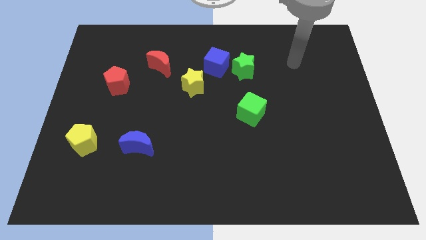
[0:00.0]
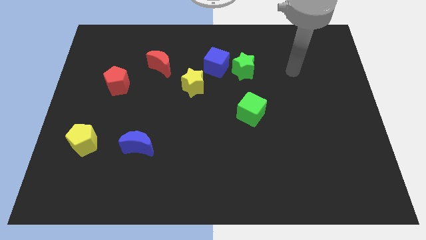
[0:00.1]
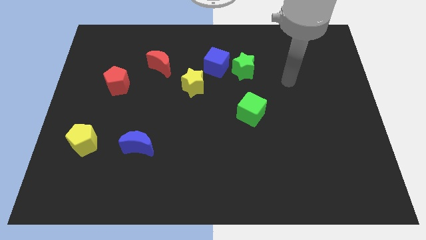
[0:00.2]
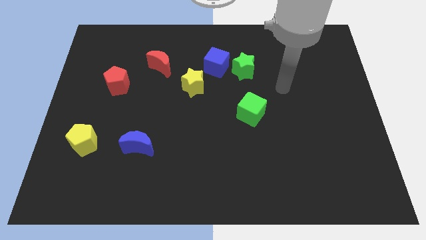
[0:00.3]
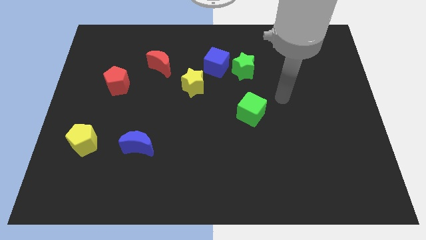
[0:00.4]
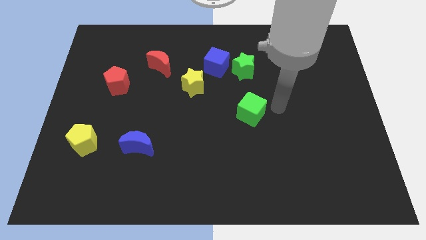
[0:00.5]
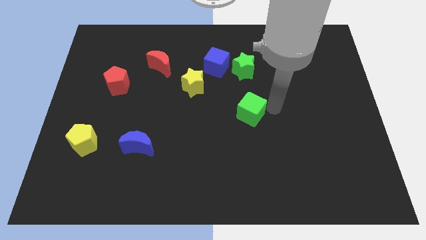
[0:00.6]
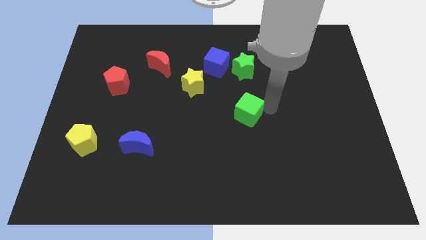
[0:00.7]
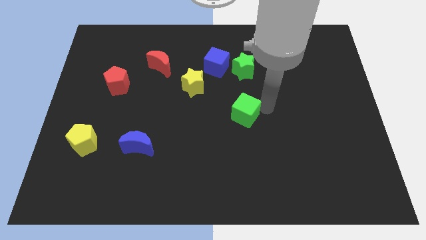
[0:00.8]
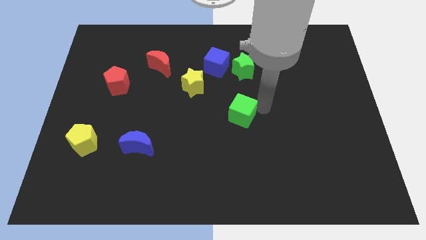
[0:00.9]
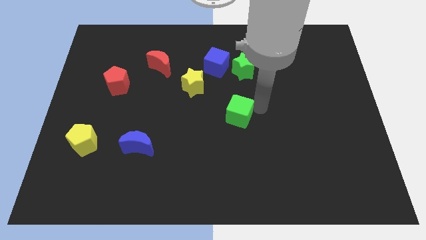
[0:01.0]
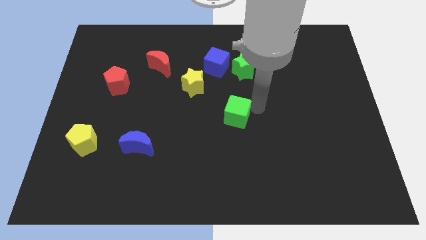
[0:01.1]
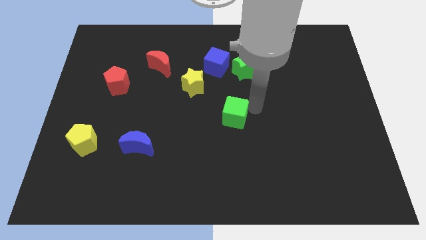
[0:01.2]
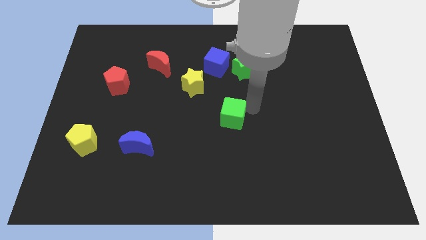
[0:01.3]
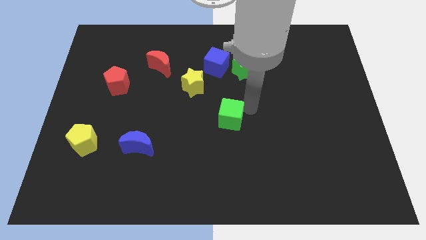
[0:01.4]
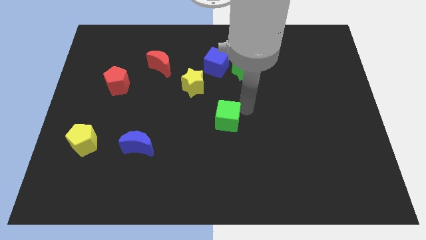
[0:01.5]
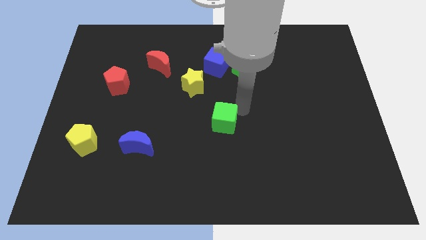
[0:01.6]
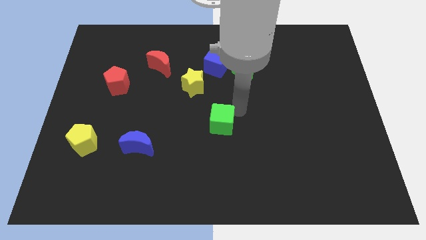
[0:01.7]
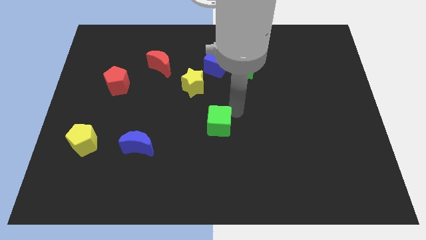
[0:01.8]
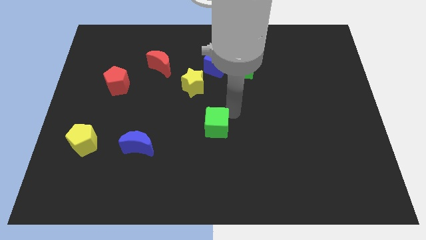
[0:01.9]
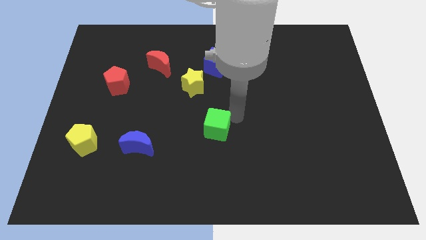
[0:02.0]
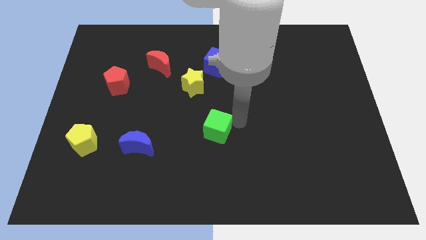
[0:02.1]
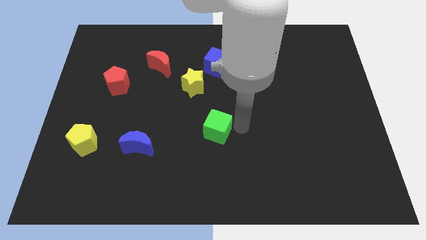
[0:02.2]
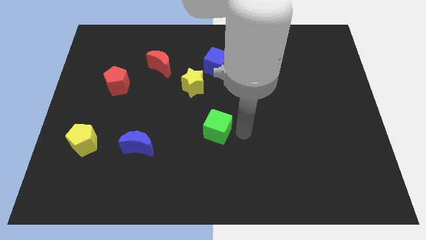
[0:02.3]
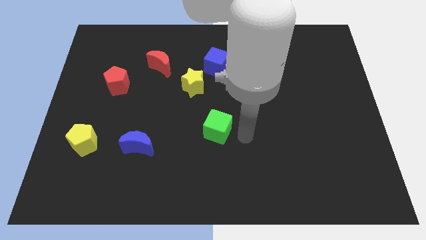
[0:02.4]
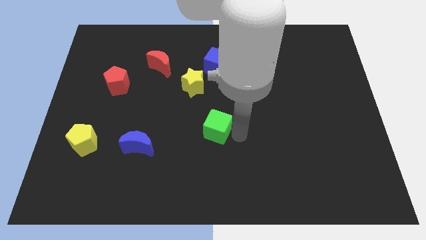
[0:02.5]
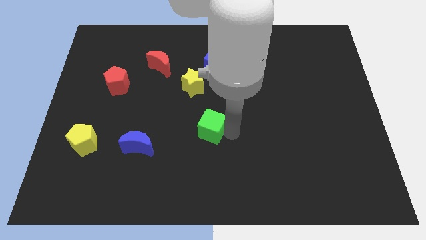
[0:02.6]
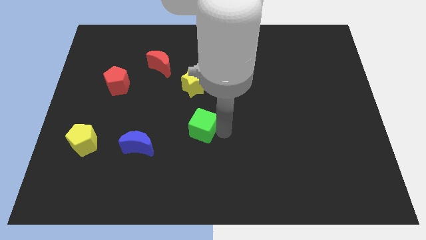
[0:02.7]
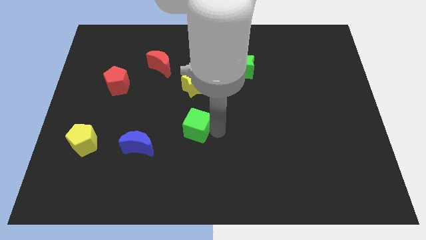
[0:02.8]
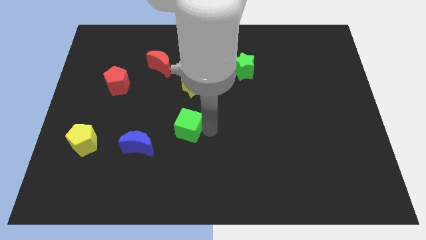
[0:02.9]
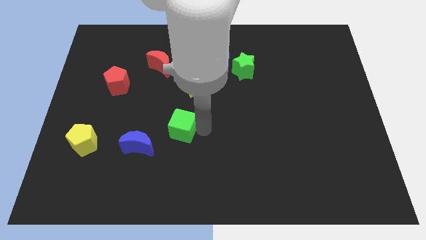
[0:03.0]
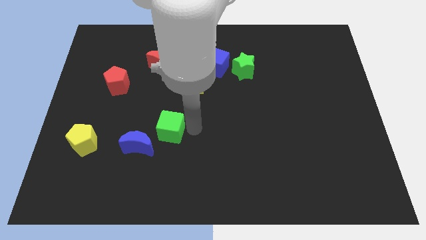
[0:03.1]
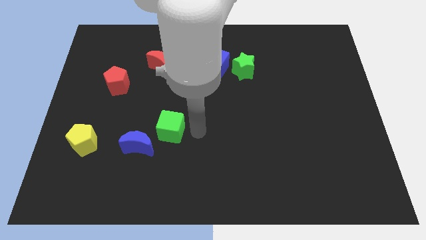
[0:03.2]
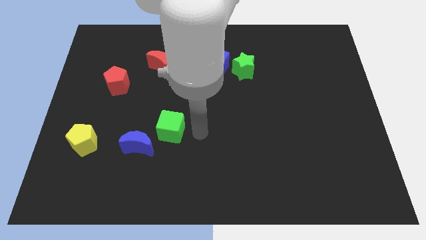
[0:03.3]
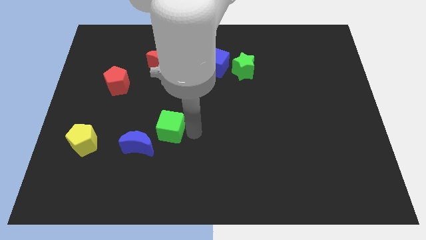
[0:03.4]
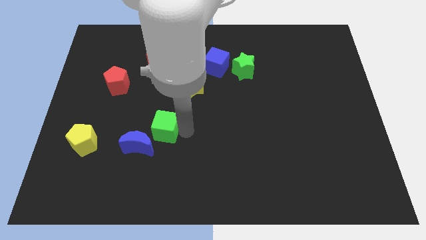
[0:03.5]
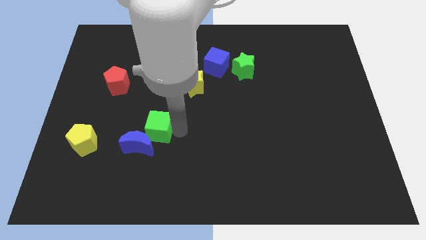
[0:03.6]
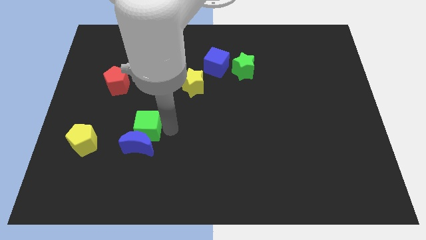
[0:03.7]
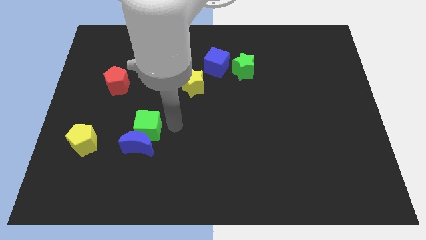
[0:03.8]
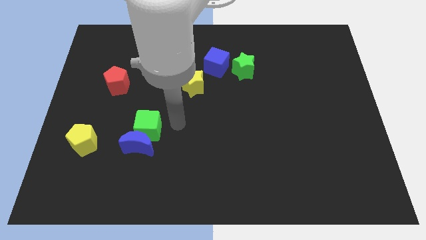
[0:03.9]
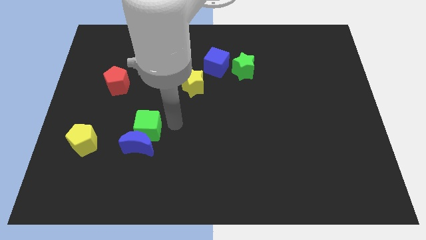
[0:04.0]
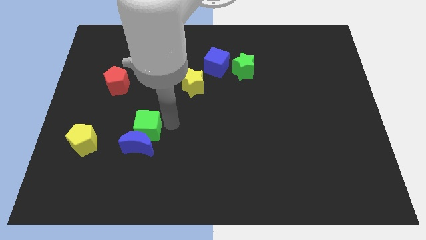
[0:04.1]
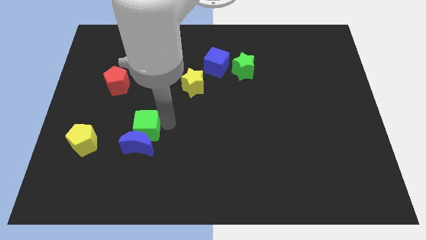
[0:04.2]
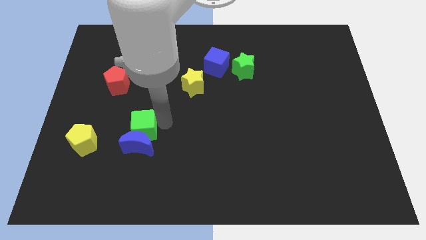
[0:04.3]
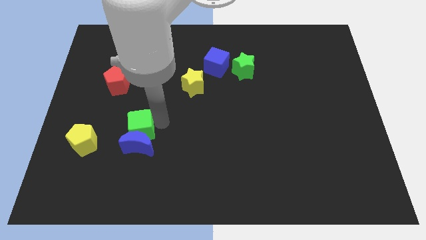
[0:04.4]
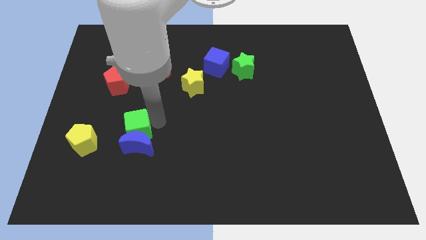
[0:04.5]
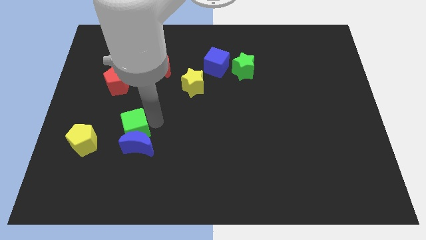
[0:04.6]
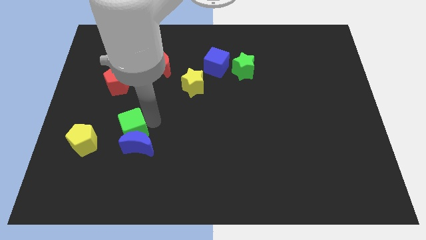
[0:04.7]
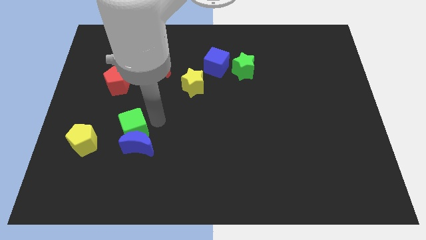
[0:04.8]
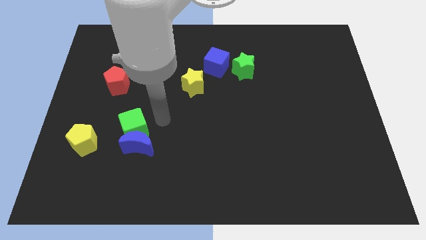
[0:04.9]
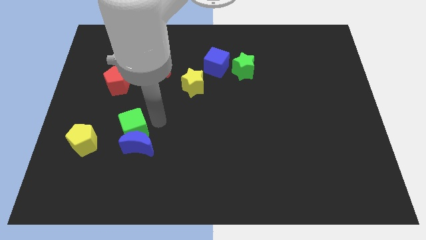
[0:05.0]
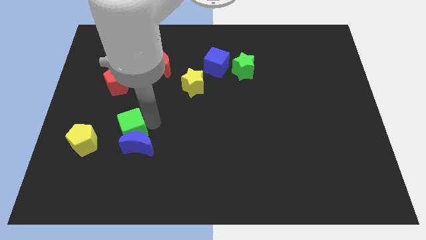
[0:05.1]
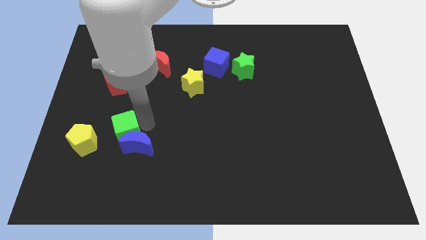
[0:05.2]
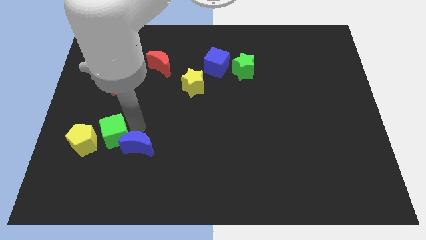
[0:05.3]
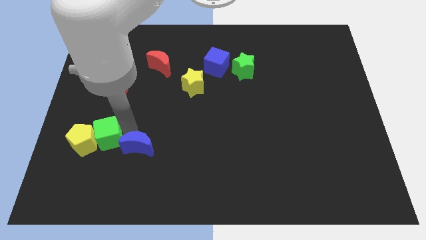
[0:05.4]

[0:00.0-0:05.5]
put the green cube next to the yellow pentagon

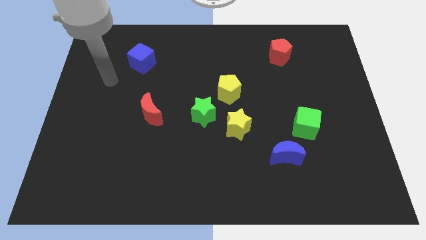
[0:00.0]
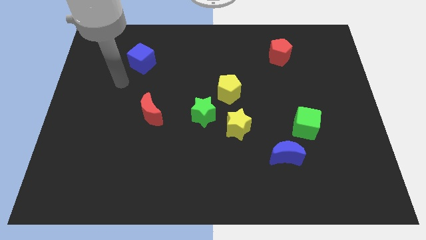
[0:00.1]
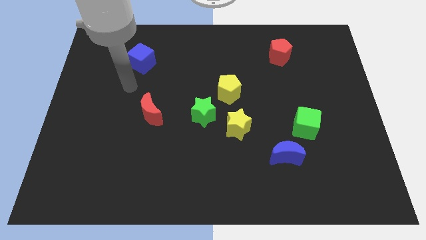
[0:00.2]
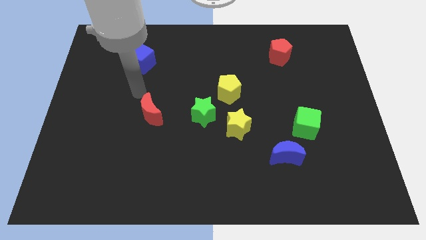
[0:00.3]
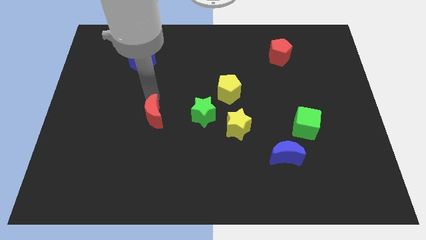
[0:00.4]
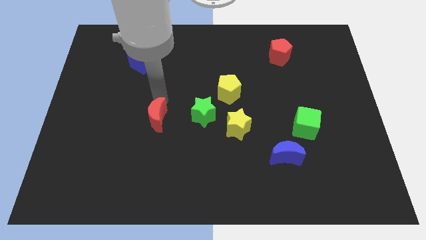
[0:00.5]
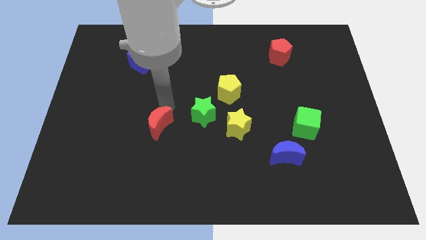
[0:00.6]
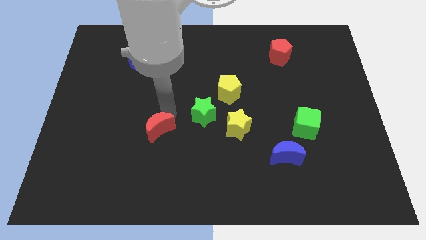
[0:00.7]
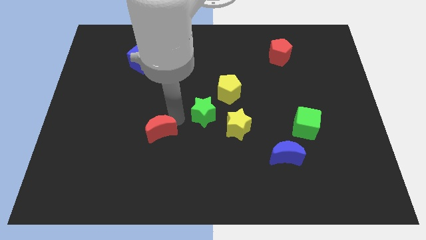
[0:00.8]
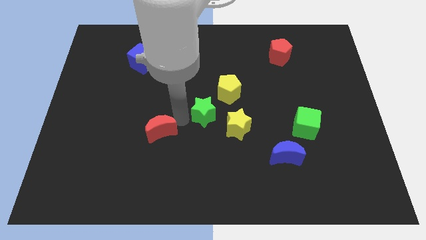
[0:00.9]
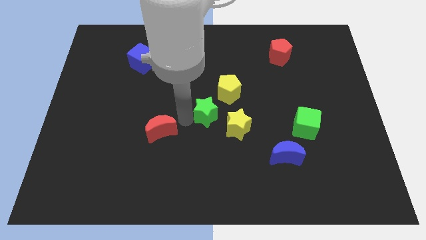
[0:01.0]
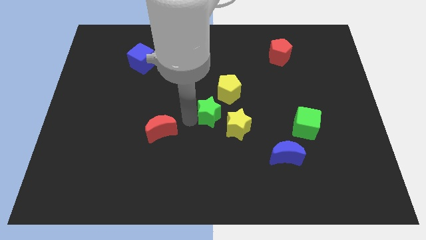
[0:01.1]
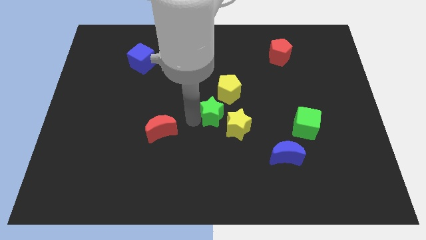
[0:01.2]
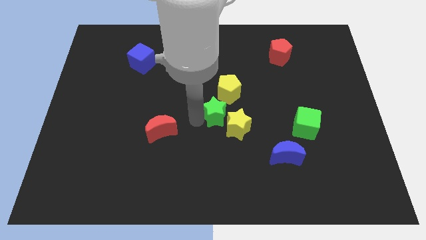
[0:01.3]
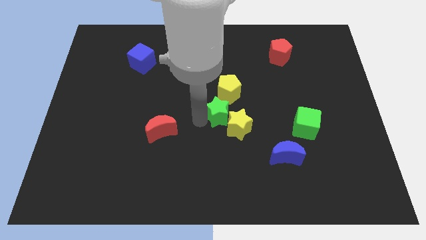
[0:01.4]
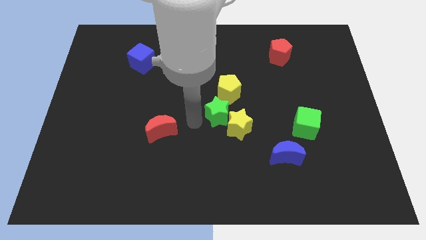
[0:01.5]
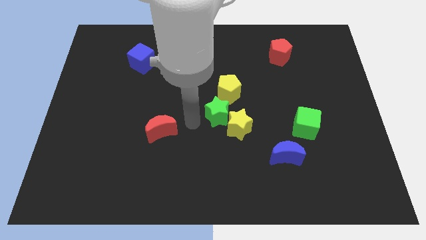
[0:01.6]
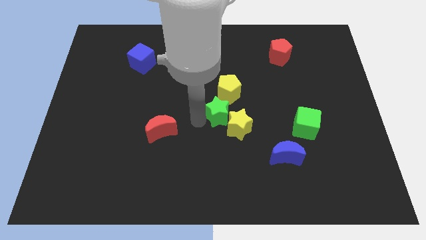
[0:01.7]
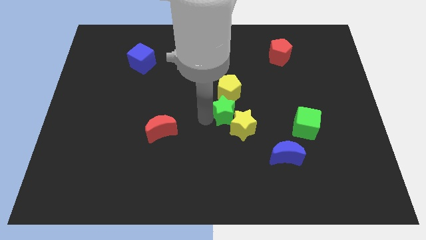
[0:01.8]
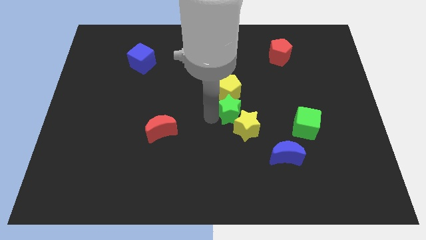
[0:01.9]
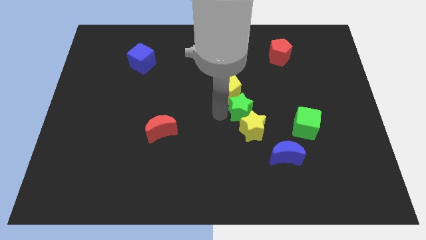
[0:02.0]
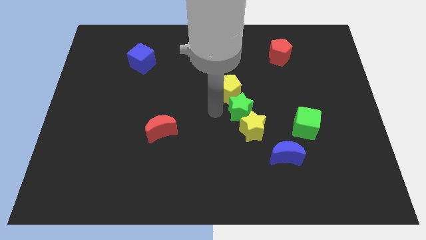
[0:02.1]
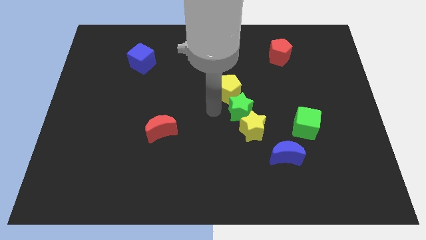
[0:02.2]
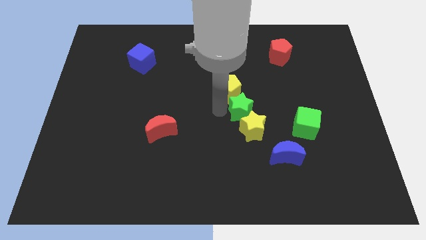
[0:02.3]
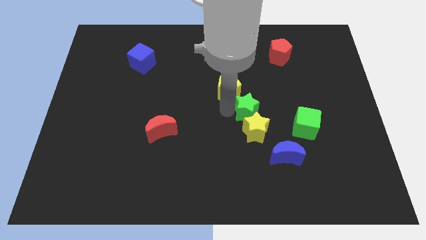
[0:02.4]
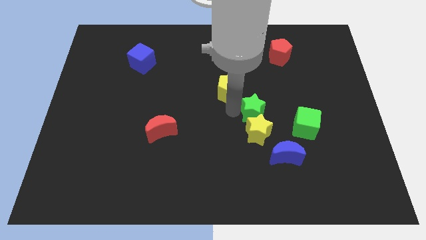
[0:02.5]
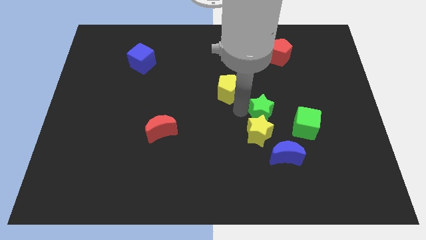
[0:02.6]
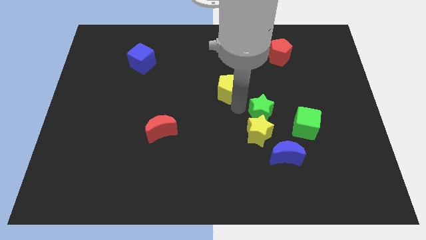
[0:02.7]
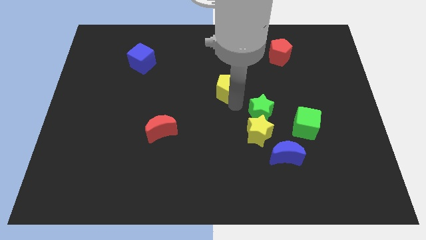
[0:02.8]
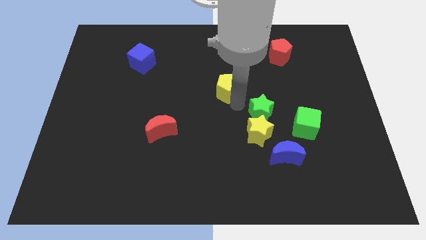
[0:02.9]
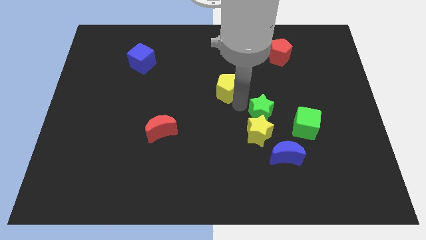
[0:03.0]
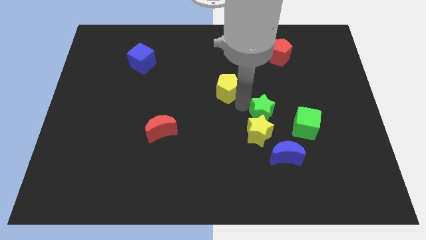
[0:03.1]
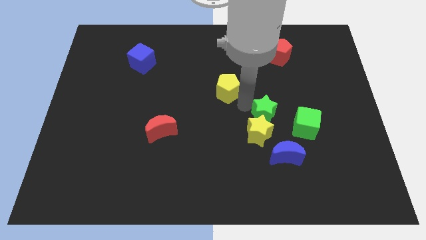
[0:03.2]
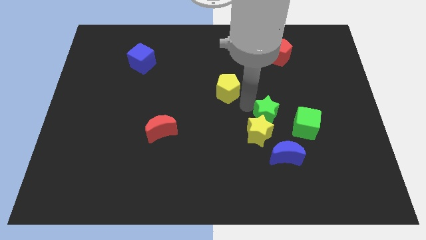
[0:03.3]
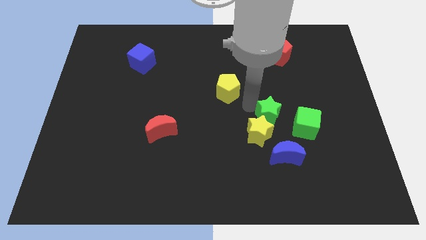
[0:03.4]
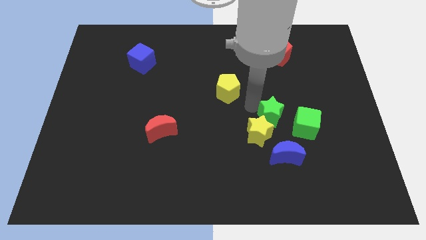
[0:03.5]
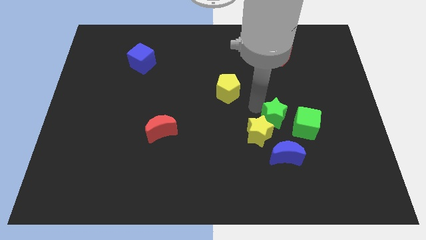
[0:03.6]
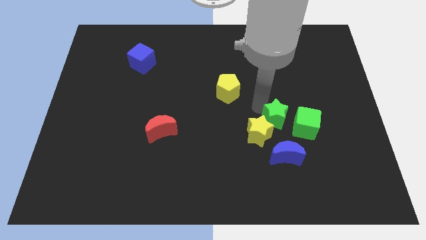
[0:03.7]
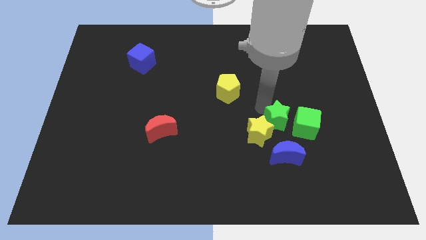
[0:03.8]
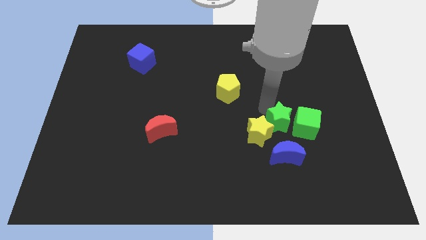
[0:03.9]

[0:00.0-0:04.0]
slide the green star towards the green cube
